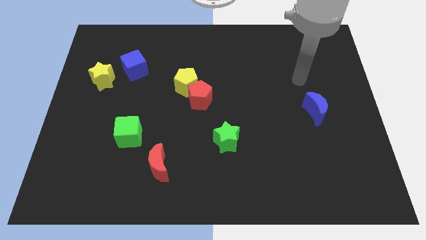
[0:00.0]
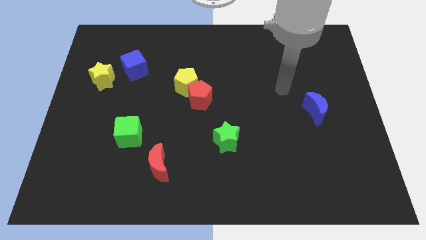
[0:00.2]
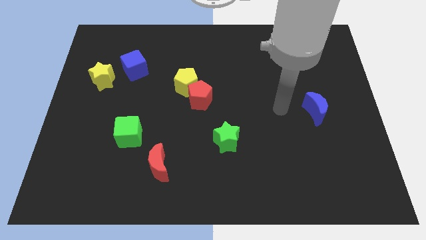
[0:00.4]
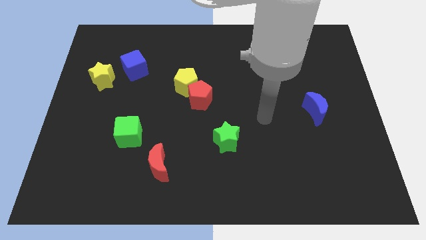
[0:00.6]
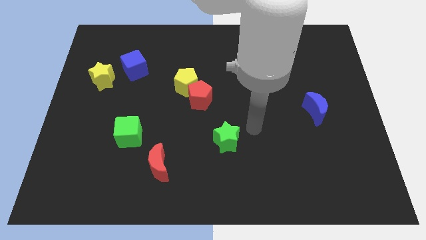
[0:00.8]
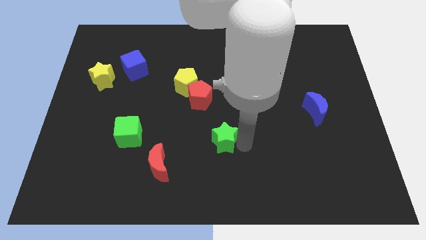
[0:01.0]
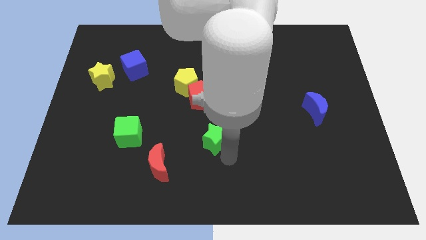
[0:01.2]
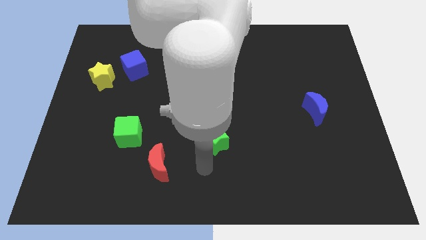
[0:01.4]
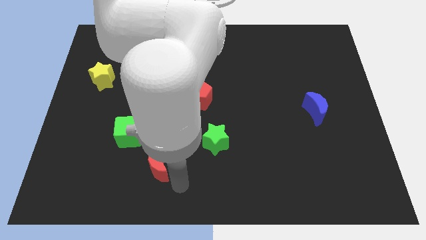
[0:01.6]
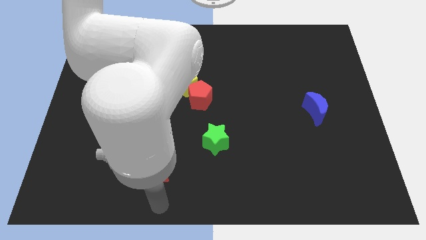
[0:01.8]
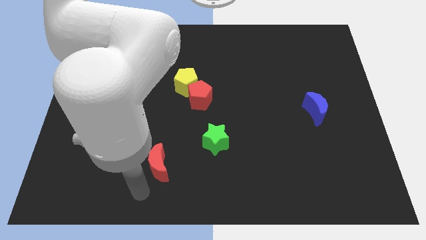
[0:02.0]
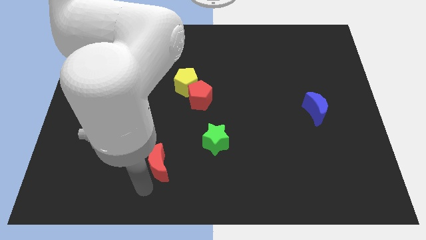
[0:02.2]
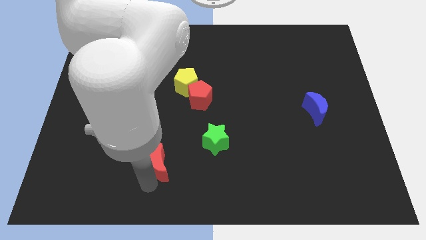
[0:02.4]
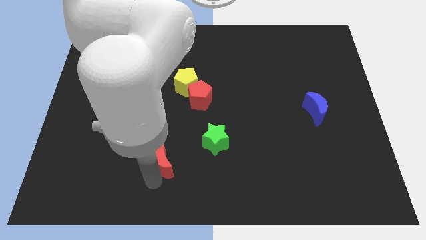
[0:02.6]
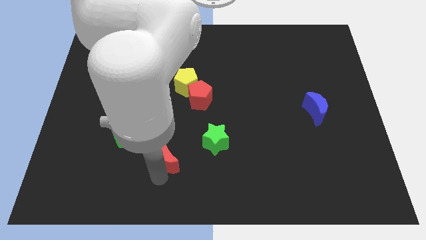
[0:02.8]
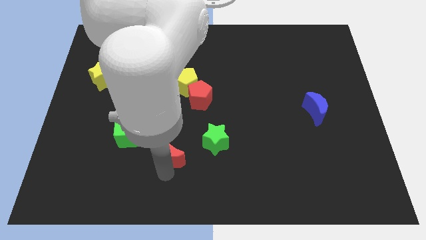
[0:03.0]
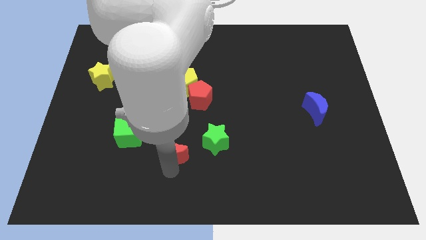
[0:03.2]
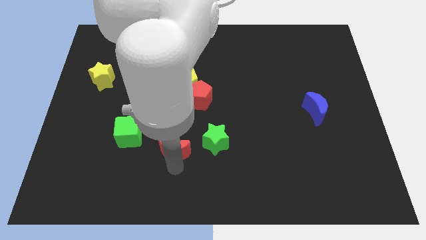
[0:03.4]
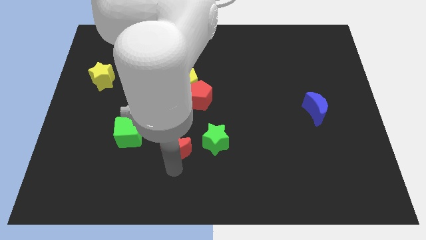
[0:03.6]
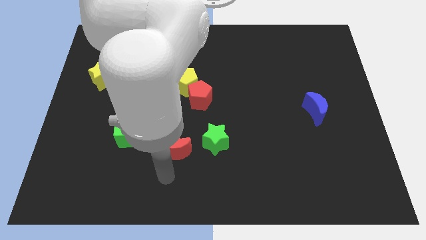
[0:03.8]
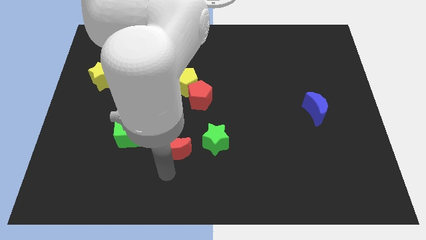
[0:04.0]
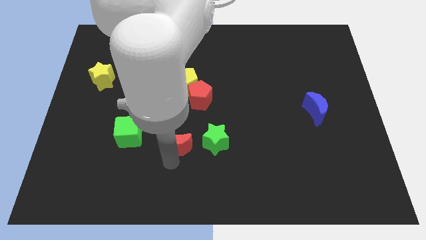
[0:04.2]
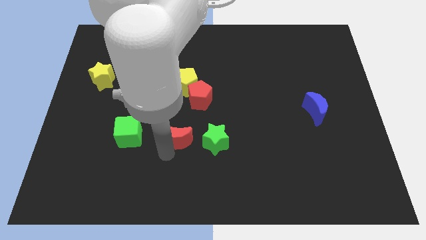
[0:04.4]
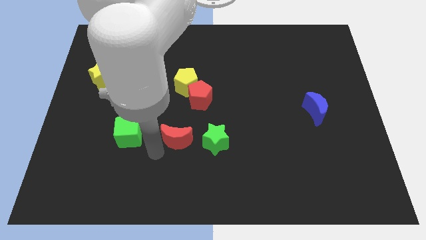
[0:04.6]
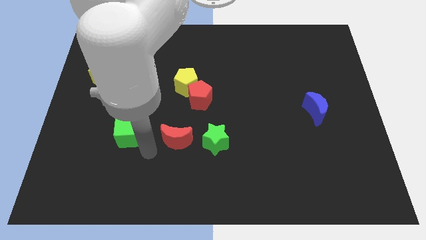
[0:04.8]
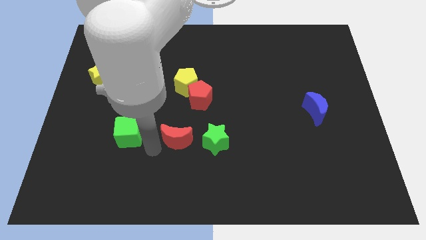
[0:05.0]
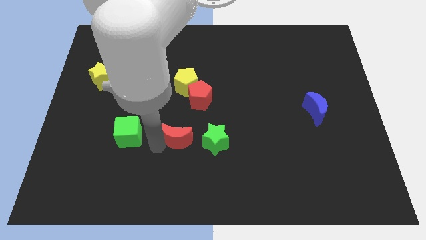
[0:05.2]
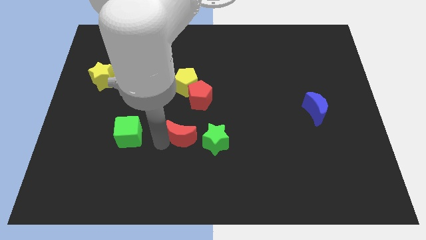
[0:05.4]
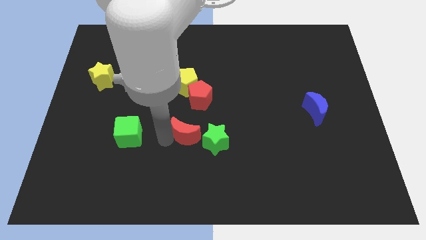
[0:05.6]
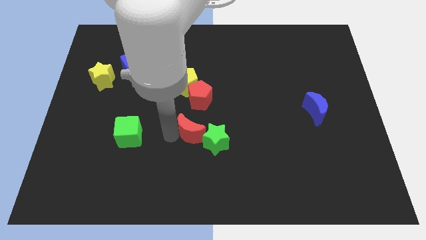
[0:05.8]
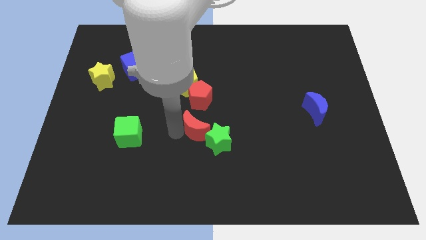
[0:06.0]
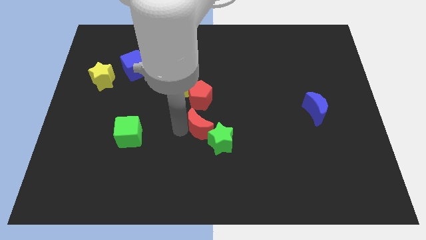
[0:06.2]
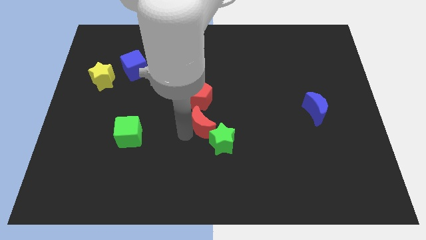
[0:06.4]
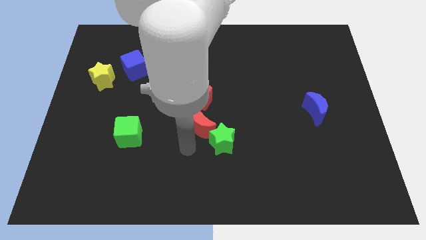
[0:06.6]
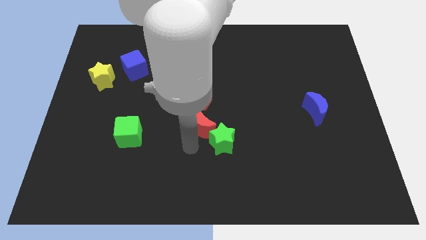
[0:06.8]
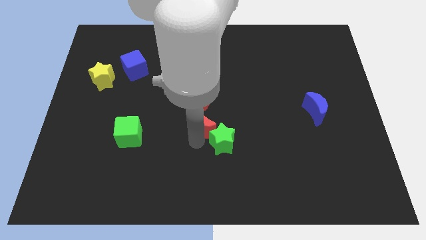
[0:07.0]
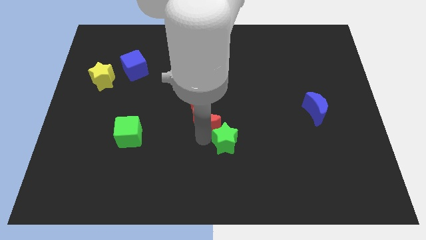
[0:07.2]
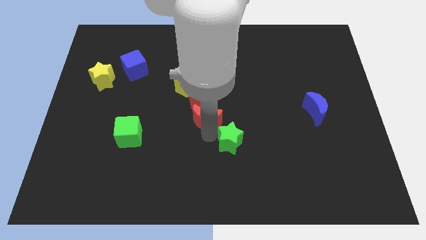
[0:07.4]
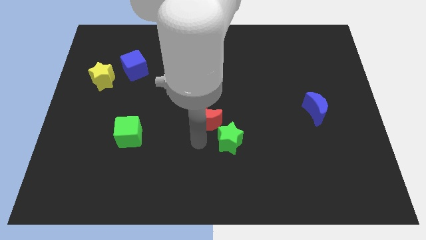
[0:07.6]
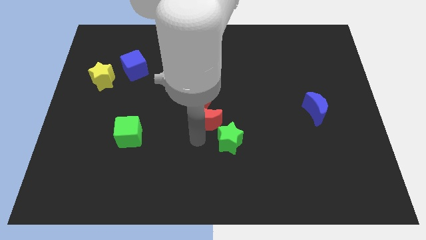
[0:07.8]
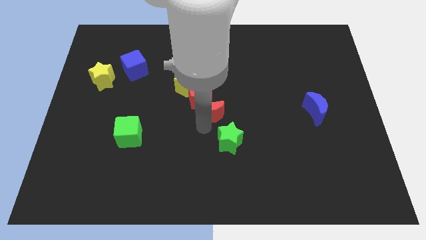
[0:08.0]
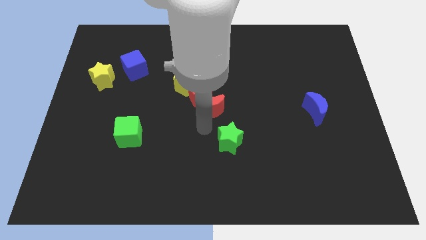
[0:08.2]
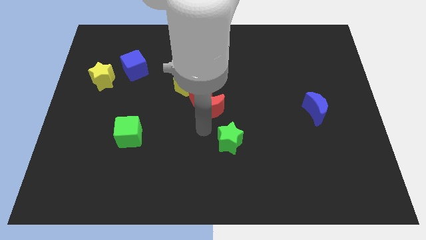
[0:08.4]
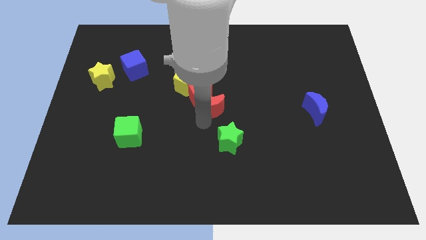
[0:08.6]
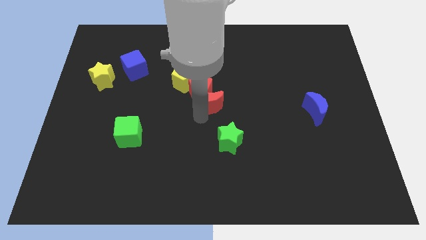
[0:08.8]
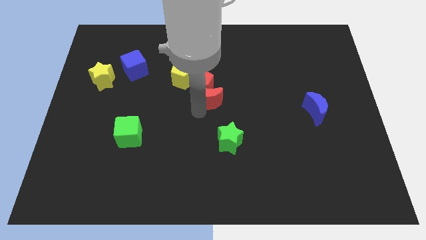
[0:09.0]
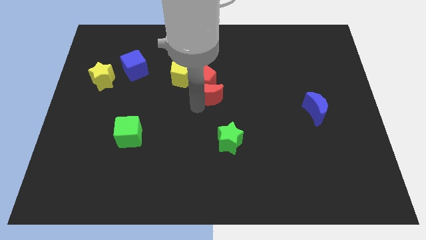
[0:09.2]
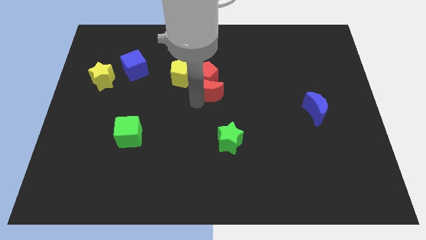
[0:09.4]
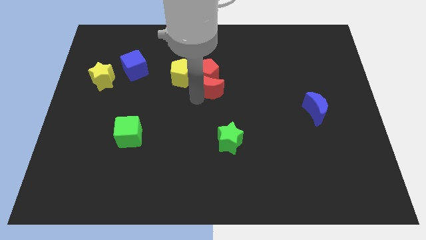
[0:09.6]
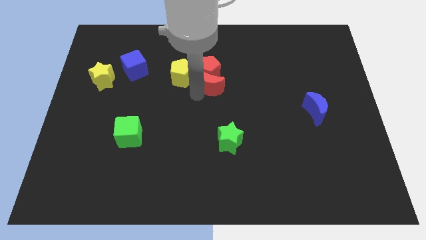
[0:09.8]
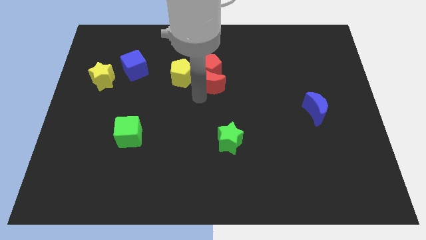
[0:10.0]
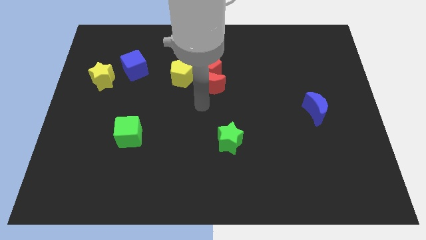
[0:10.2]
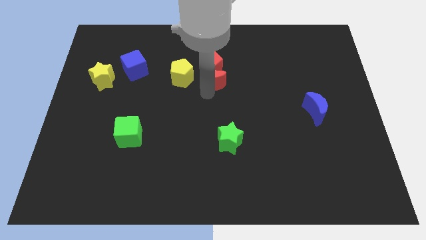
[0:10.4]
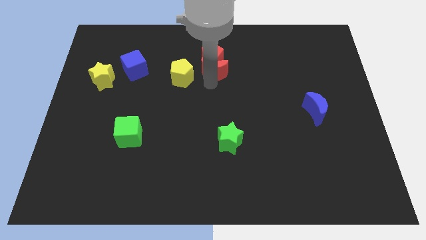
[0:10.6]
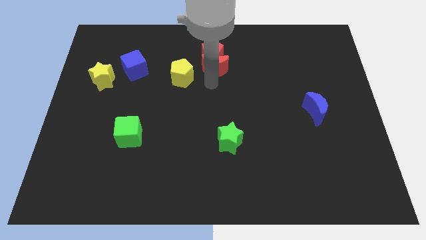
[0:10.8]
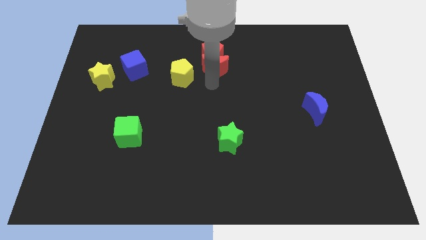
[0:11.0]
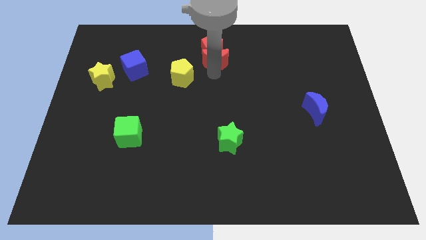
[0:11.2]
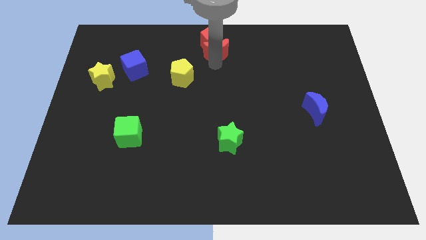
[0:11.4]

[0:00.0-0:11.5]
move the red moon to the towards your base

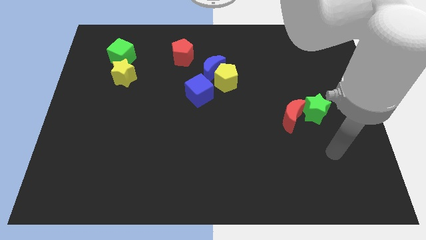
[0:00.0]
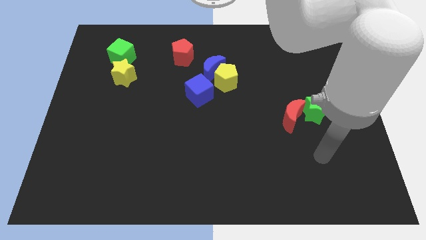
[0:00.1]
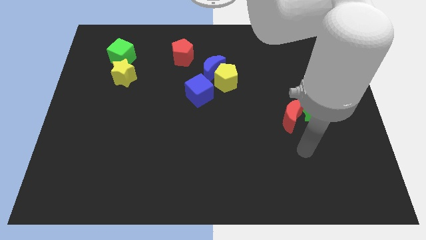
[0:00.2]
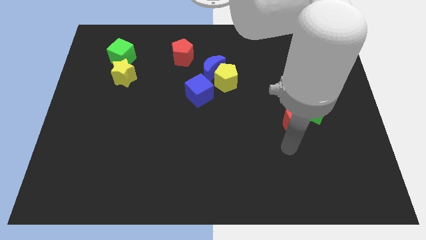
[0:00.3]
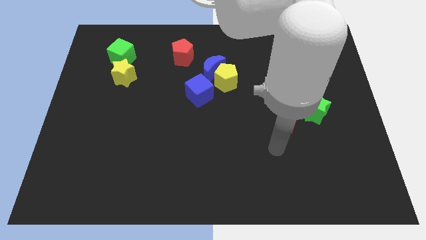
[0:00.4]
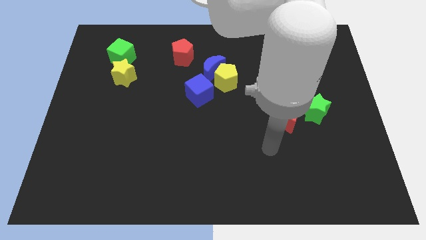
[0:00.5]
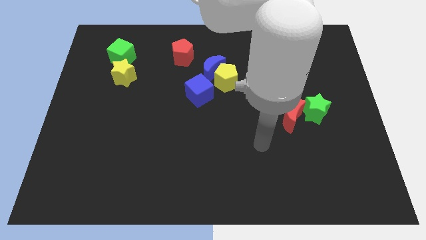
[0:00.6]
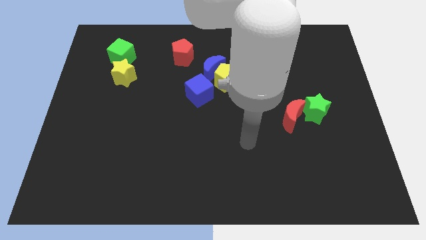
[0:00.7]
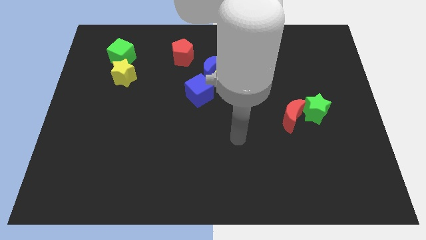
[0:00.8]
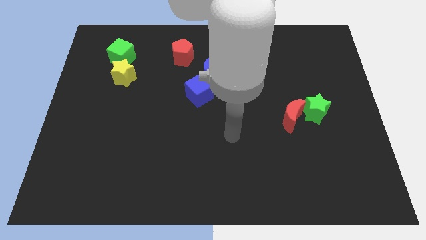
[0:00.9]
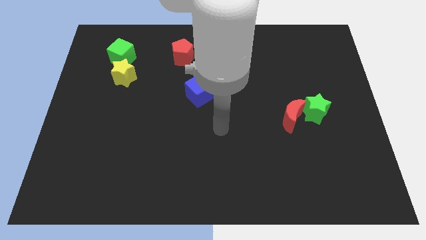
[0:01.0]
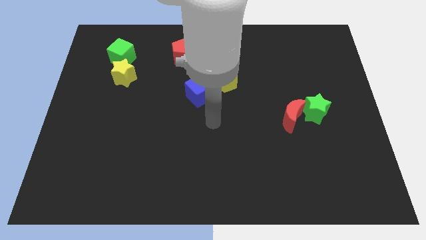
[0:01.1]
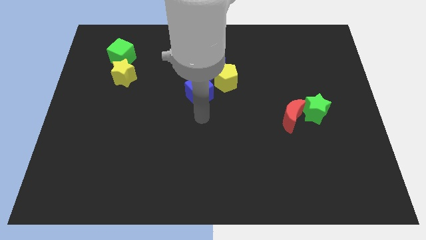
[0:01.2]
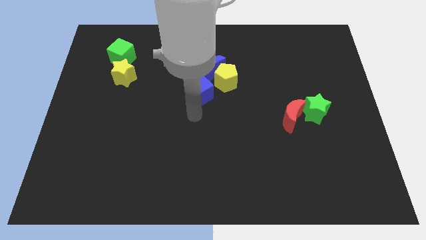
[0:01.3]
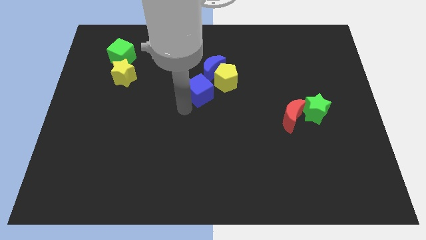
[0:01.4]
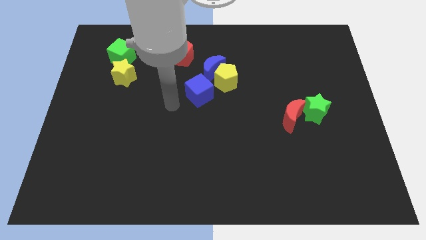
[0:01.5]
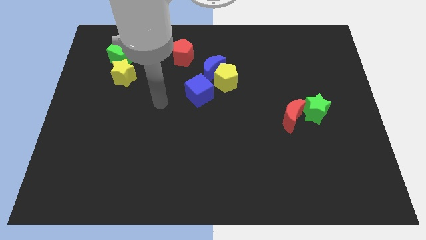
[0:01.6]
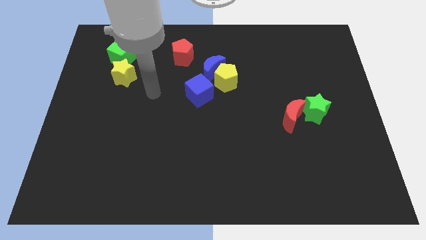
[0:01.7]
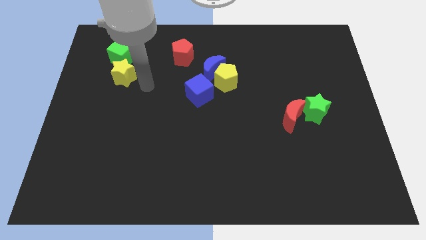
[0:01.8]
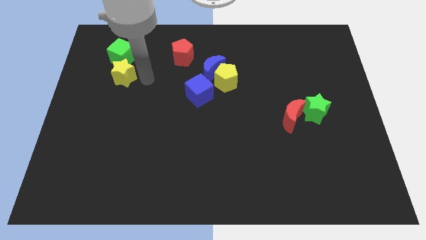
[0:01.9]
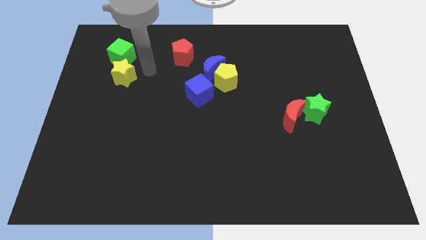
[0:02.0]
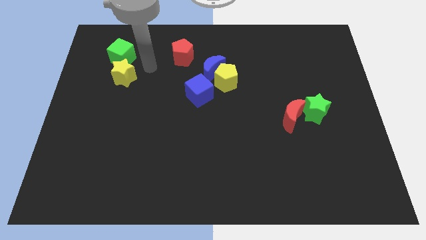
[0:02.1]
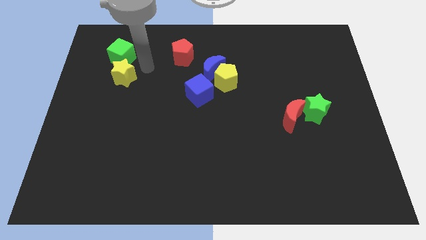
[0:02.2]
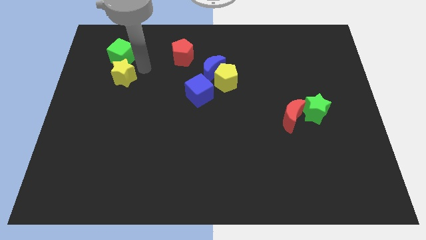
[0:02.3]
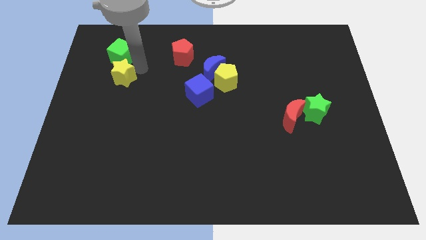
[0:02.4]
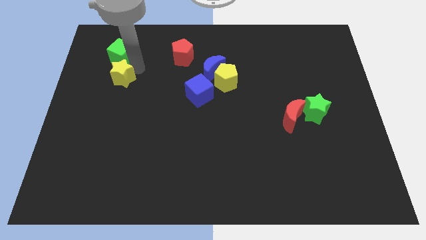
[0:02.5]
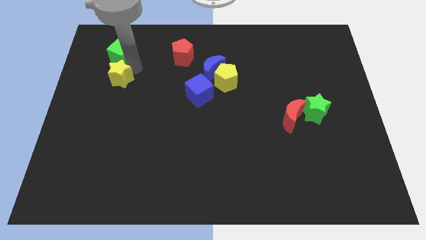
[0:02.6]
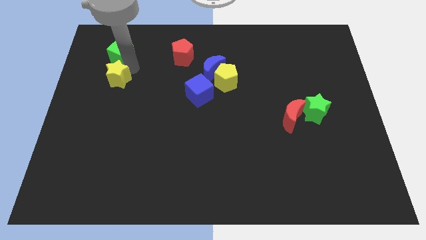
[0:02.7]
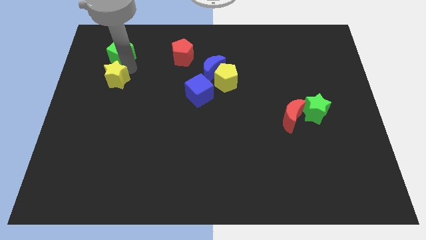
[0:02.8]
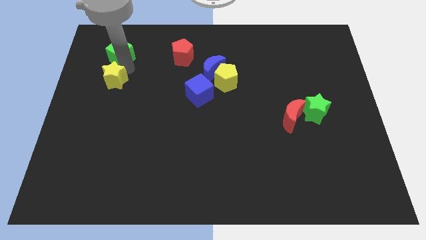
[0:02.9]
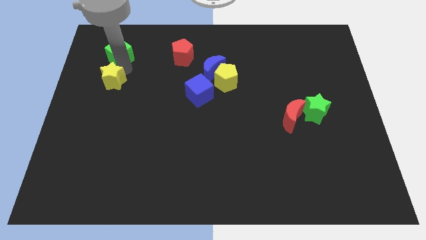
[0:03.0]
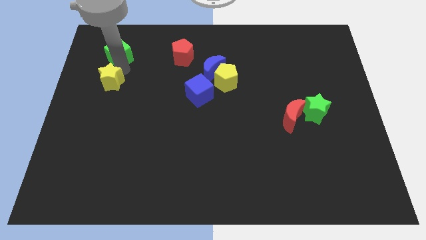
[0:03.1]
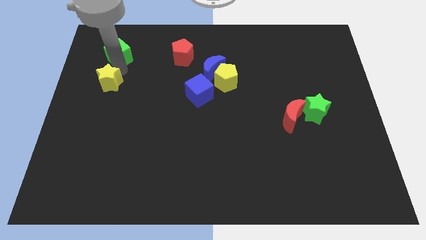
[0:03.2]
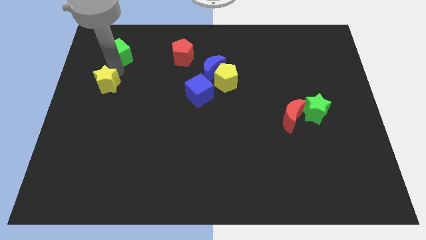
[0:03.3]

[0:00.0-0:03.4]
push the yellow star to the left side of the board
